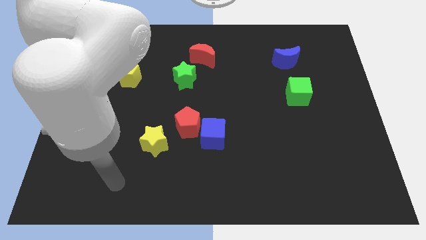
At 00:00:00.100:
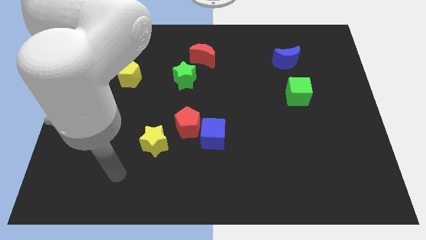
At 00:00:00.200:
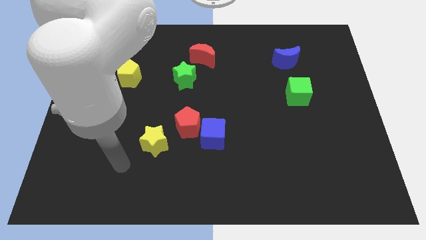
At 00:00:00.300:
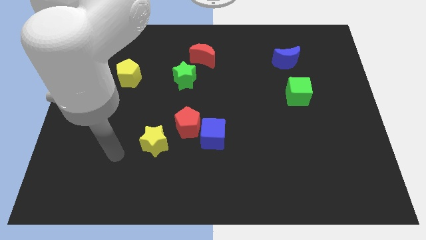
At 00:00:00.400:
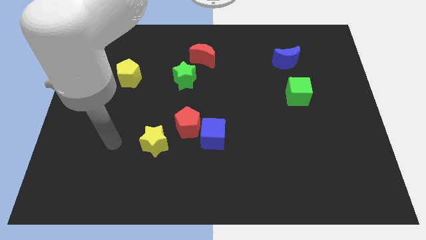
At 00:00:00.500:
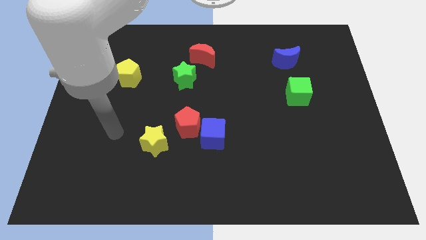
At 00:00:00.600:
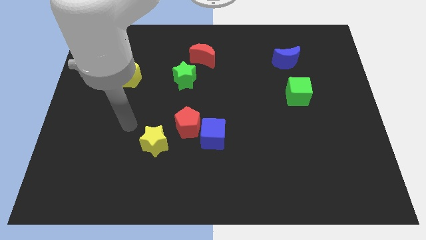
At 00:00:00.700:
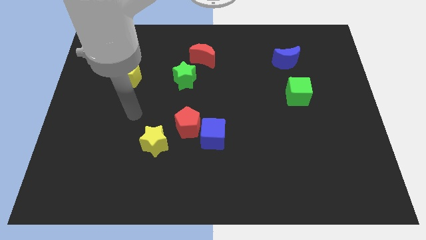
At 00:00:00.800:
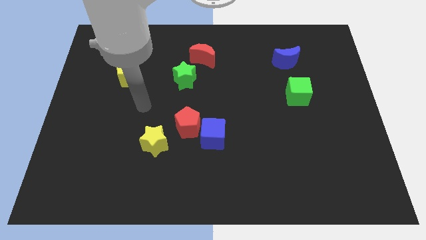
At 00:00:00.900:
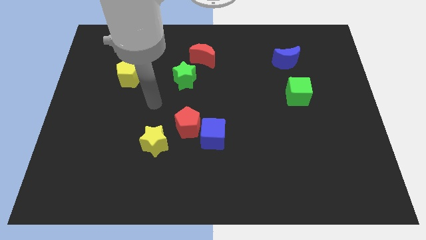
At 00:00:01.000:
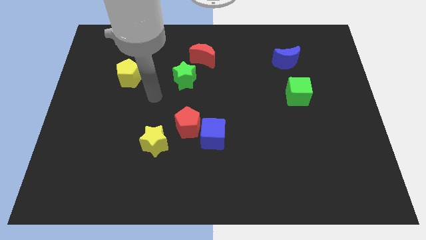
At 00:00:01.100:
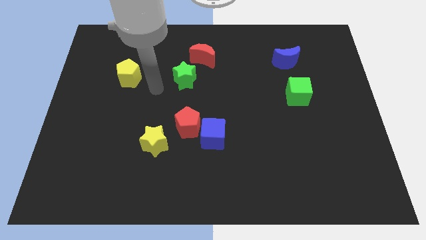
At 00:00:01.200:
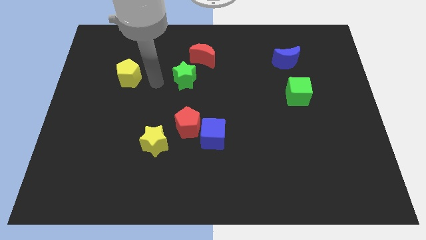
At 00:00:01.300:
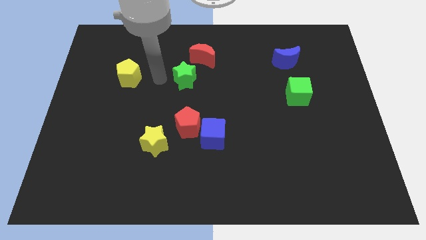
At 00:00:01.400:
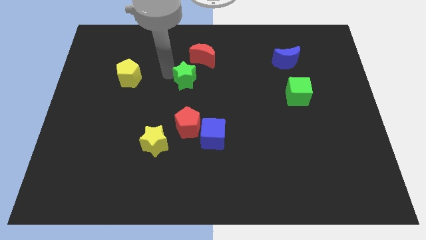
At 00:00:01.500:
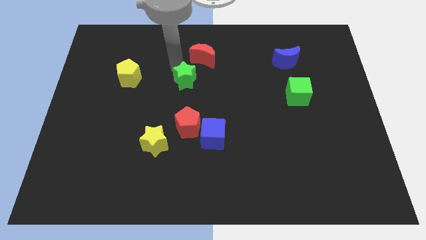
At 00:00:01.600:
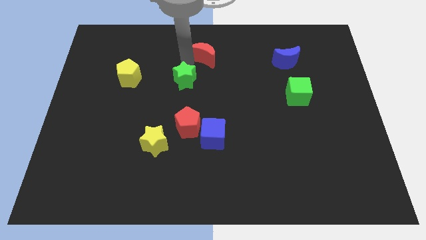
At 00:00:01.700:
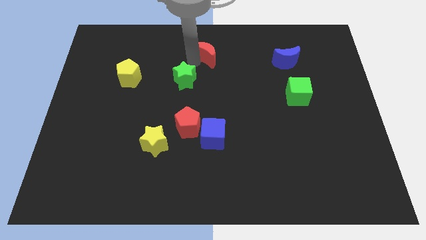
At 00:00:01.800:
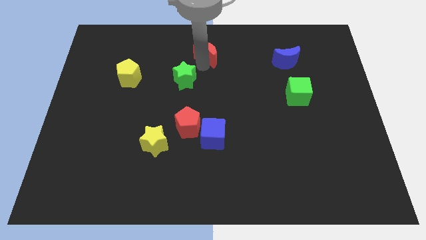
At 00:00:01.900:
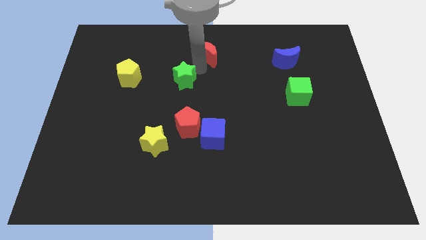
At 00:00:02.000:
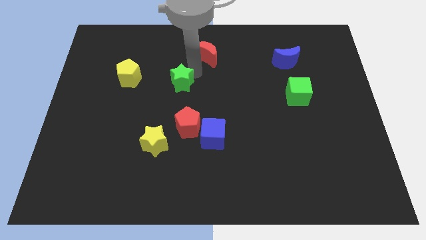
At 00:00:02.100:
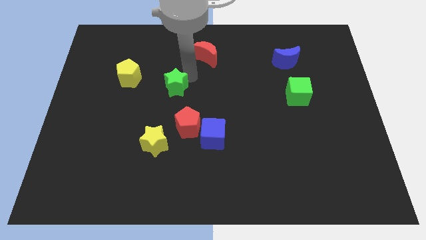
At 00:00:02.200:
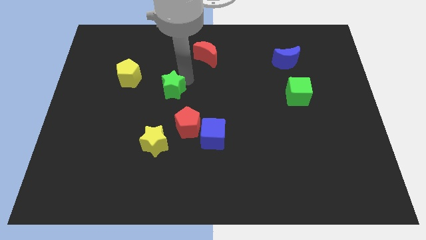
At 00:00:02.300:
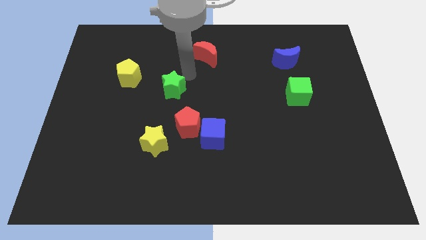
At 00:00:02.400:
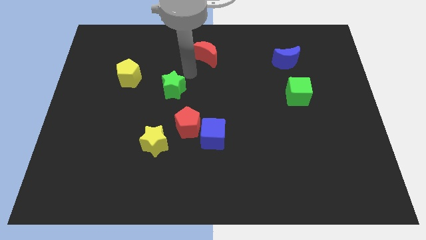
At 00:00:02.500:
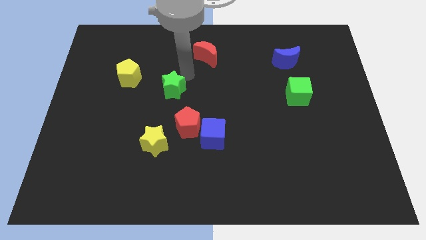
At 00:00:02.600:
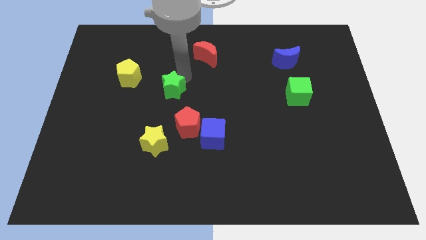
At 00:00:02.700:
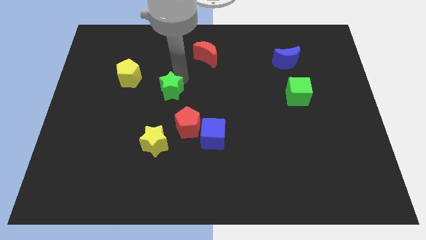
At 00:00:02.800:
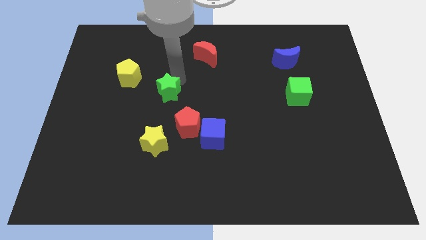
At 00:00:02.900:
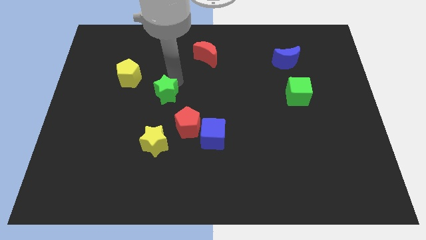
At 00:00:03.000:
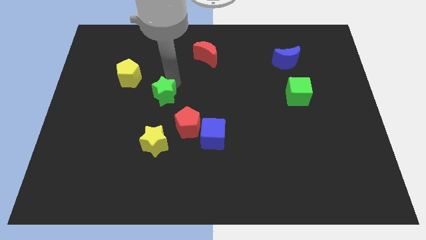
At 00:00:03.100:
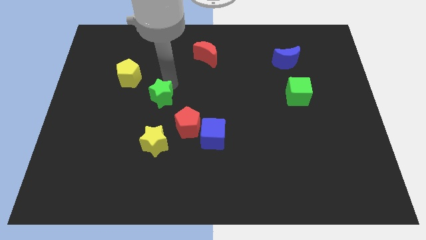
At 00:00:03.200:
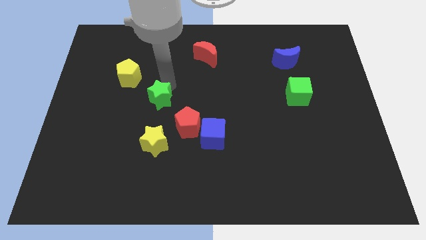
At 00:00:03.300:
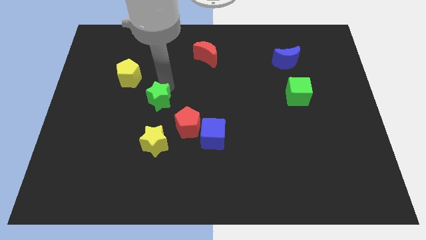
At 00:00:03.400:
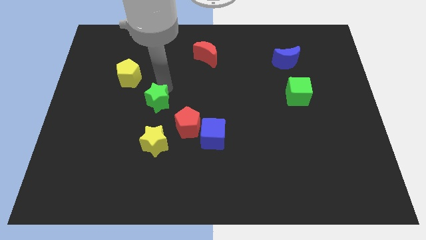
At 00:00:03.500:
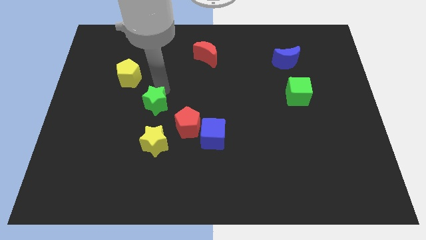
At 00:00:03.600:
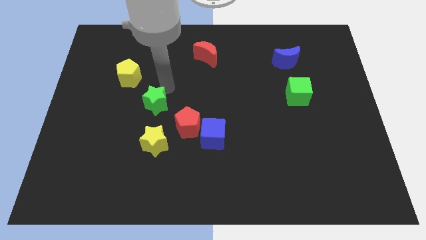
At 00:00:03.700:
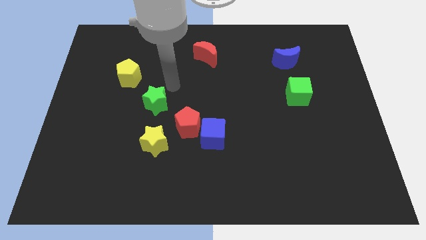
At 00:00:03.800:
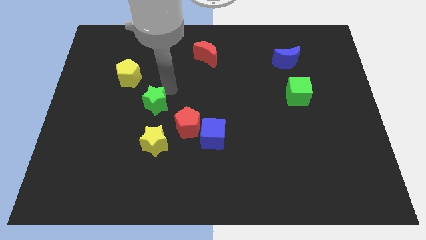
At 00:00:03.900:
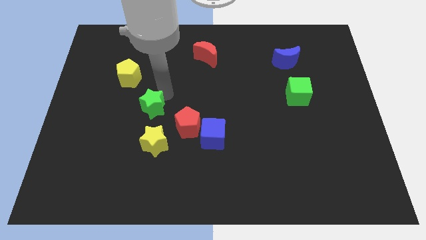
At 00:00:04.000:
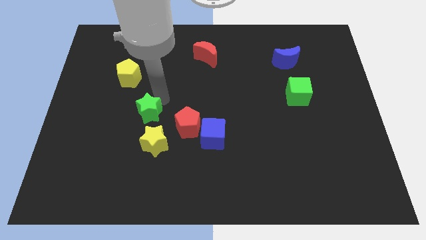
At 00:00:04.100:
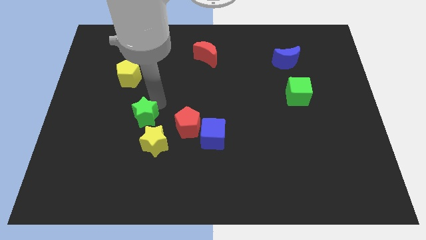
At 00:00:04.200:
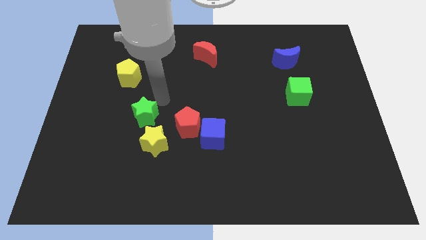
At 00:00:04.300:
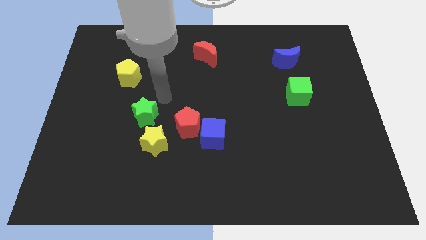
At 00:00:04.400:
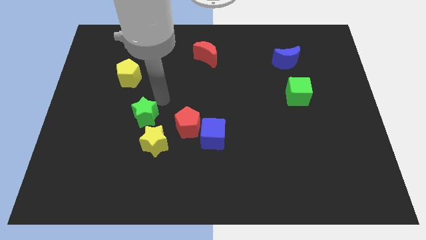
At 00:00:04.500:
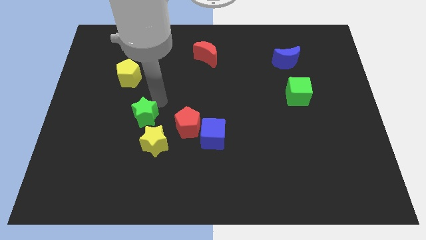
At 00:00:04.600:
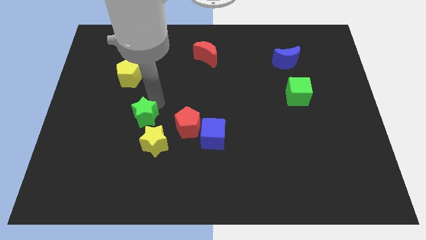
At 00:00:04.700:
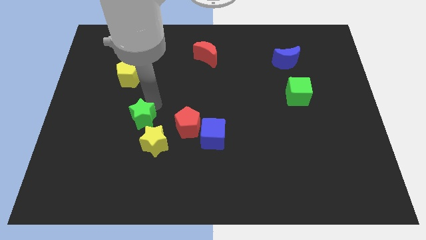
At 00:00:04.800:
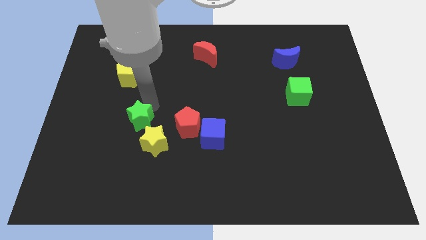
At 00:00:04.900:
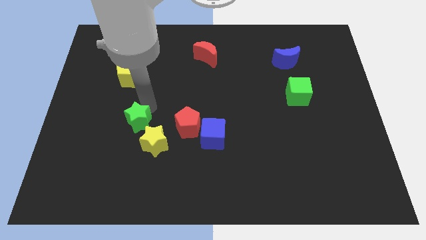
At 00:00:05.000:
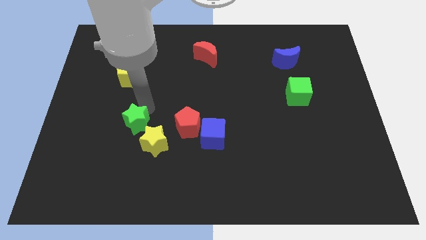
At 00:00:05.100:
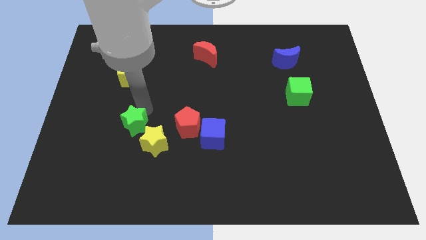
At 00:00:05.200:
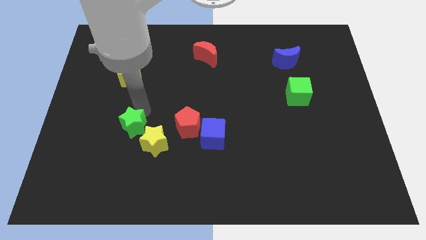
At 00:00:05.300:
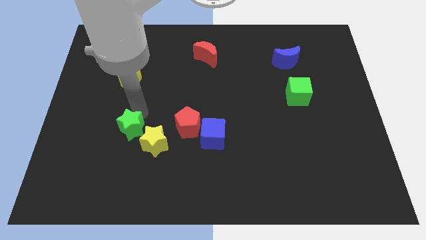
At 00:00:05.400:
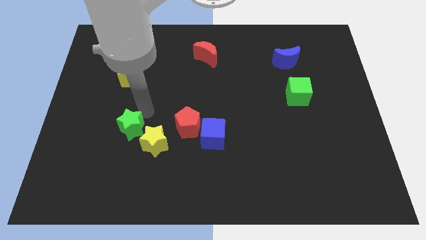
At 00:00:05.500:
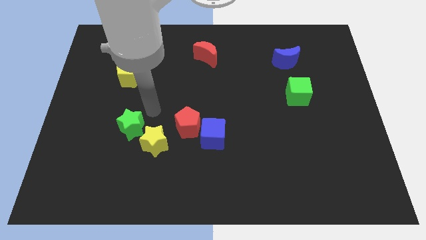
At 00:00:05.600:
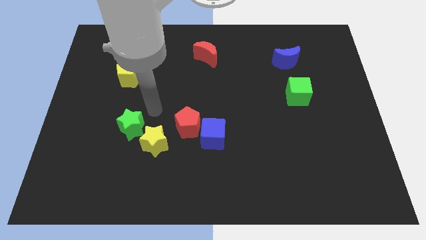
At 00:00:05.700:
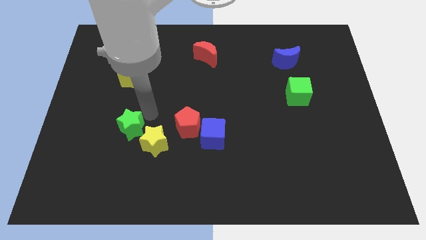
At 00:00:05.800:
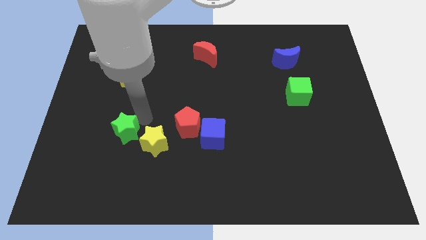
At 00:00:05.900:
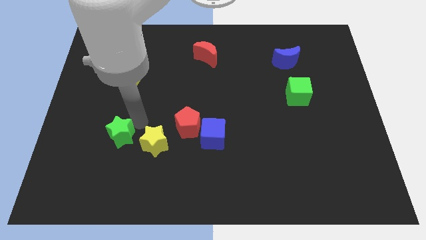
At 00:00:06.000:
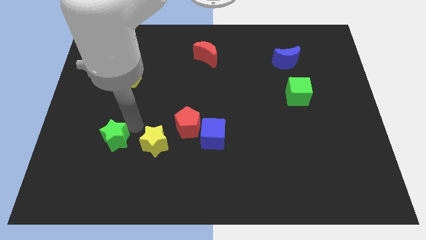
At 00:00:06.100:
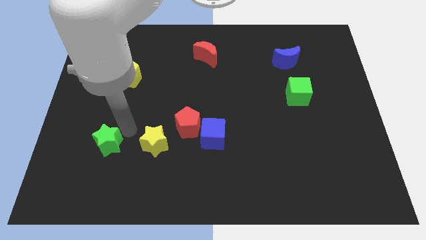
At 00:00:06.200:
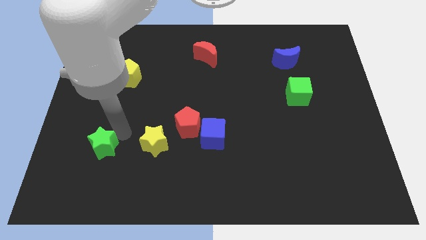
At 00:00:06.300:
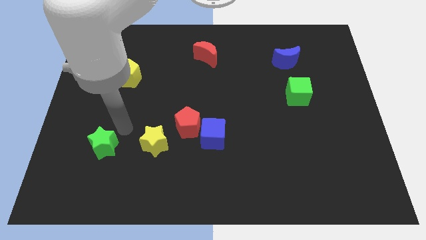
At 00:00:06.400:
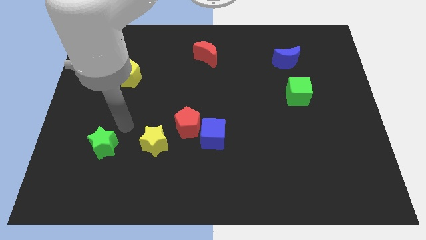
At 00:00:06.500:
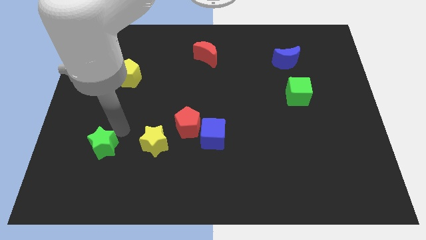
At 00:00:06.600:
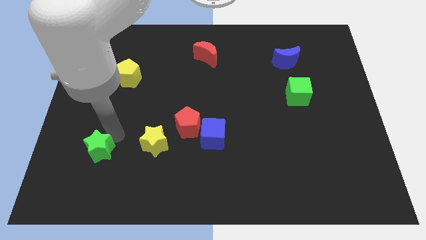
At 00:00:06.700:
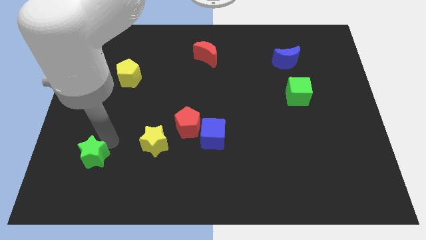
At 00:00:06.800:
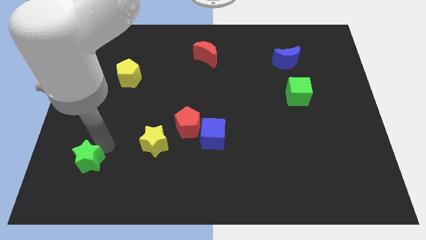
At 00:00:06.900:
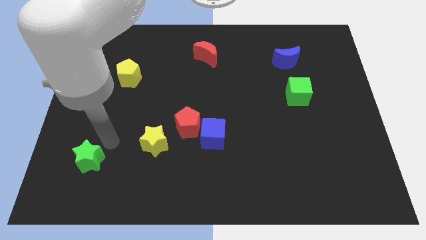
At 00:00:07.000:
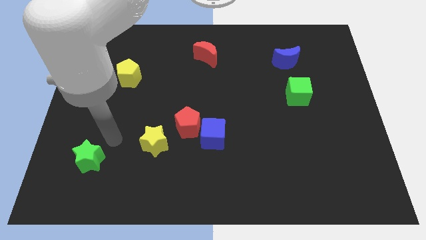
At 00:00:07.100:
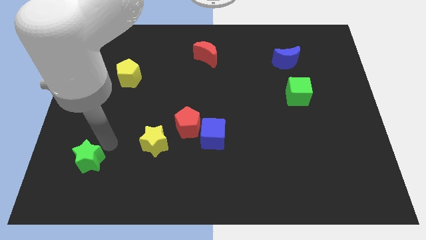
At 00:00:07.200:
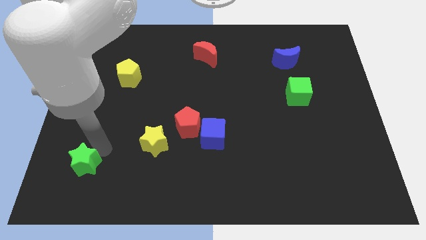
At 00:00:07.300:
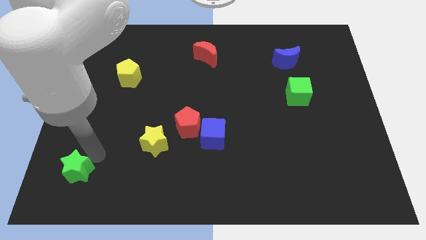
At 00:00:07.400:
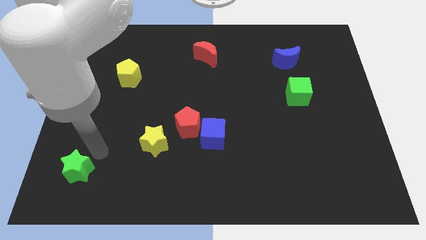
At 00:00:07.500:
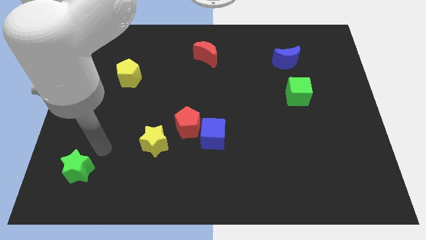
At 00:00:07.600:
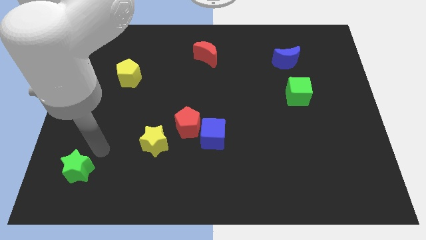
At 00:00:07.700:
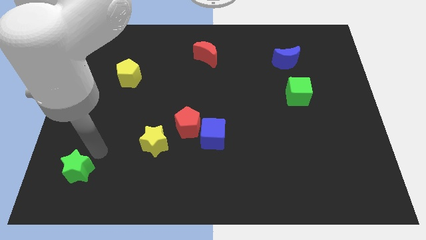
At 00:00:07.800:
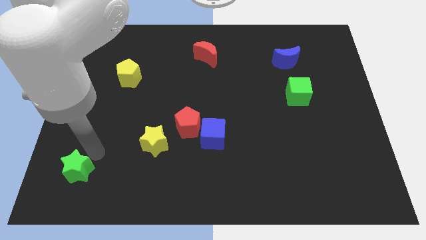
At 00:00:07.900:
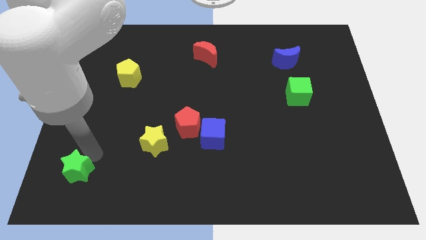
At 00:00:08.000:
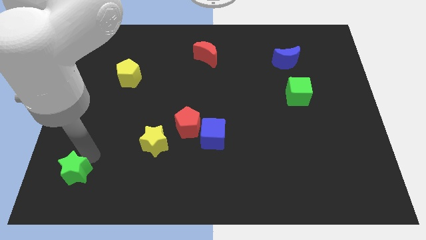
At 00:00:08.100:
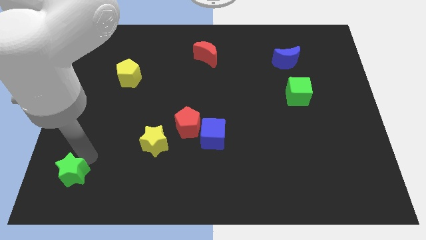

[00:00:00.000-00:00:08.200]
move the green star to the bottom left corner
